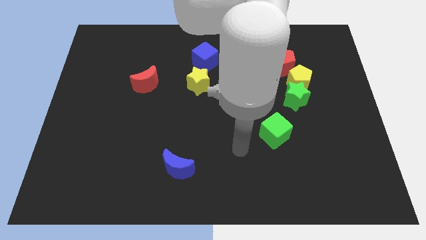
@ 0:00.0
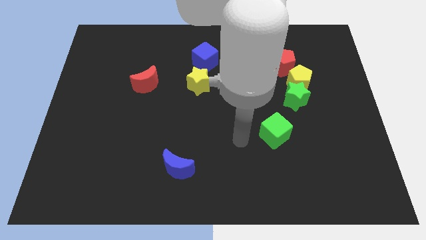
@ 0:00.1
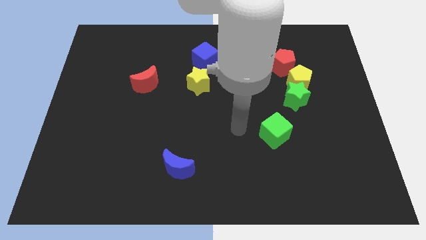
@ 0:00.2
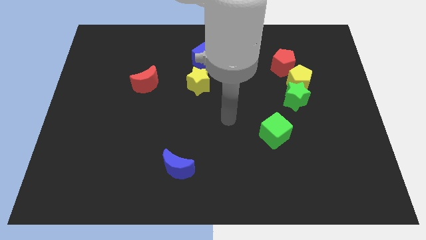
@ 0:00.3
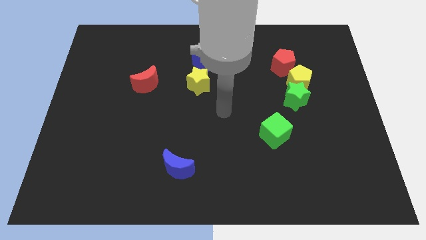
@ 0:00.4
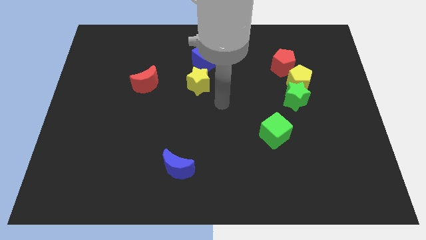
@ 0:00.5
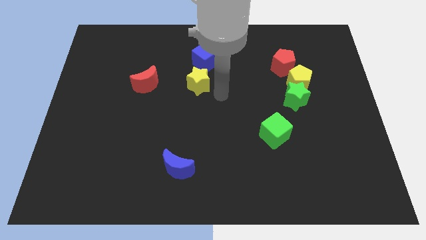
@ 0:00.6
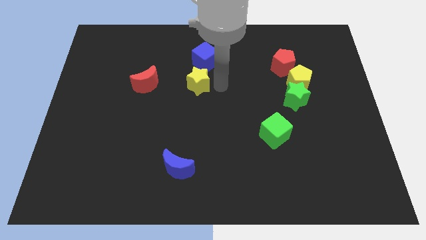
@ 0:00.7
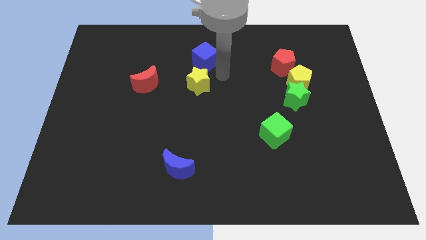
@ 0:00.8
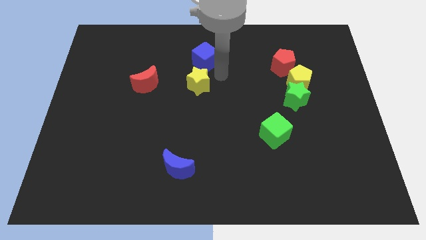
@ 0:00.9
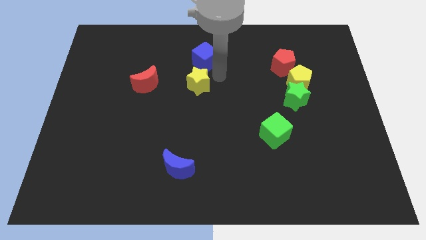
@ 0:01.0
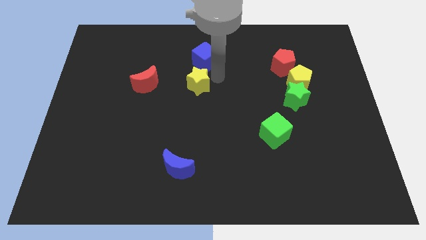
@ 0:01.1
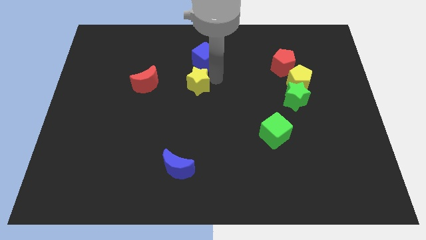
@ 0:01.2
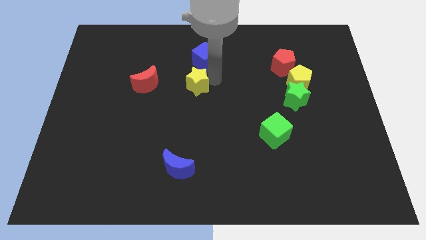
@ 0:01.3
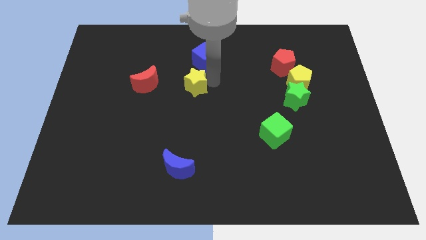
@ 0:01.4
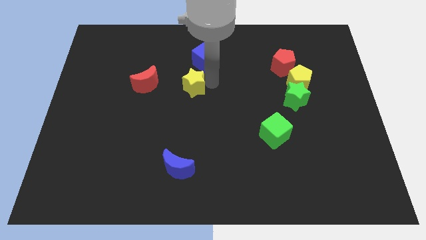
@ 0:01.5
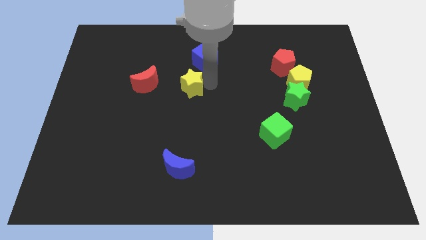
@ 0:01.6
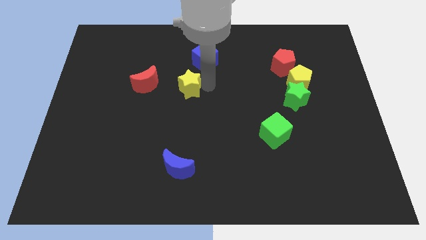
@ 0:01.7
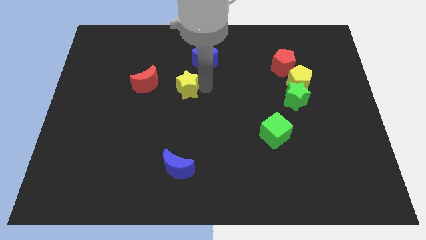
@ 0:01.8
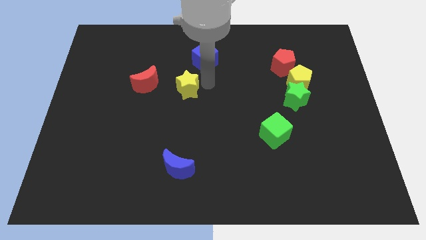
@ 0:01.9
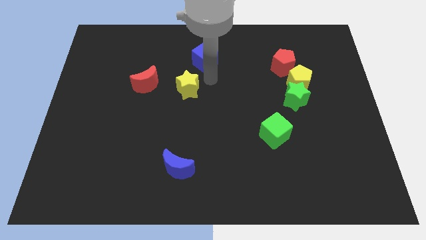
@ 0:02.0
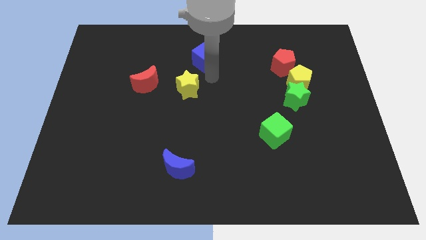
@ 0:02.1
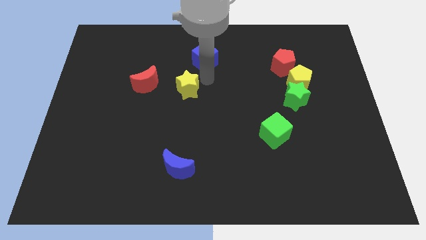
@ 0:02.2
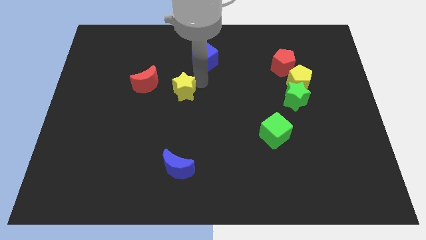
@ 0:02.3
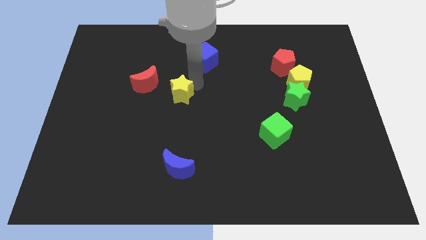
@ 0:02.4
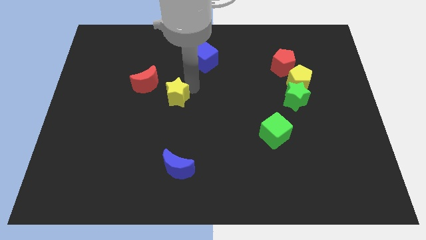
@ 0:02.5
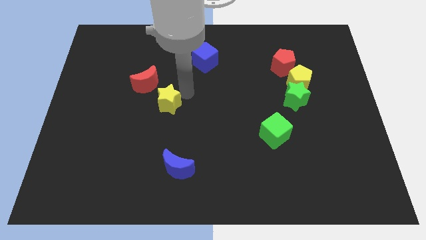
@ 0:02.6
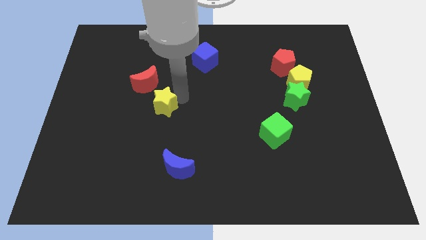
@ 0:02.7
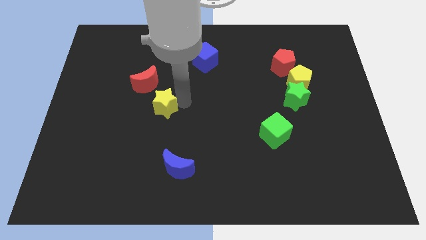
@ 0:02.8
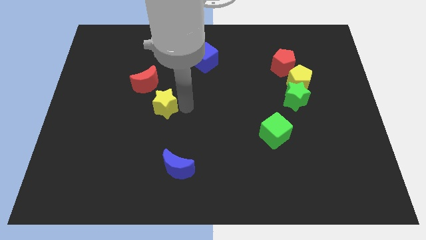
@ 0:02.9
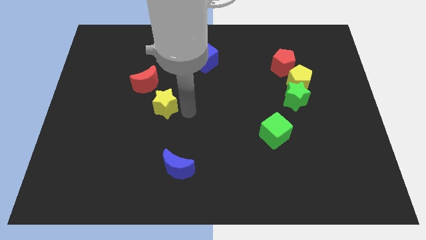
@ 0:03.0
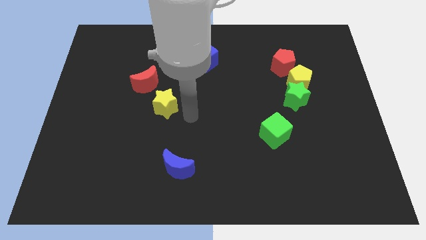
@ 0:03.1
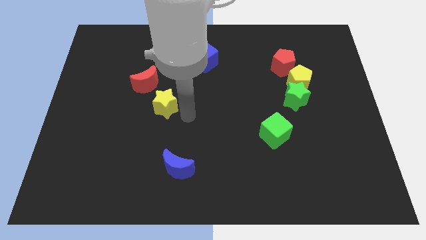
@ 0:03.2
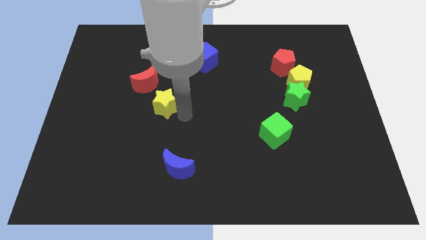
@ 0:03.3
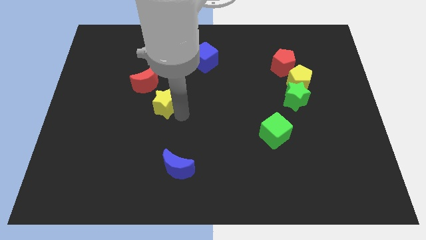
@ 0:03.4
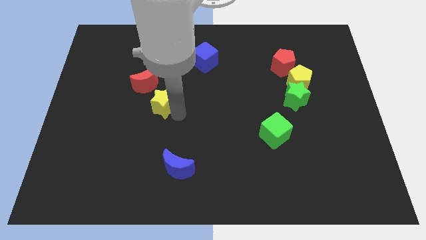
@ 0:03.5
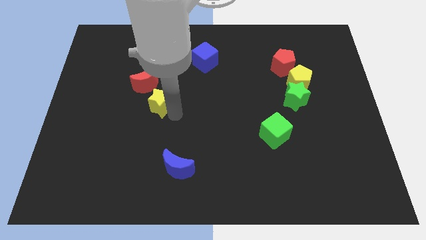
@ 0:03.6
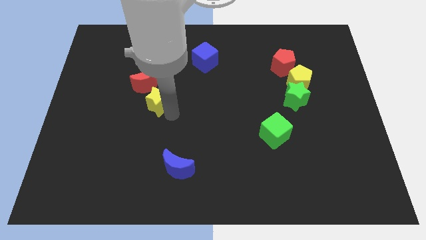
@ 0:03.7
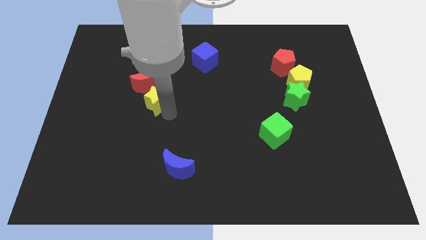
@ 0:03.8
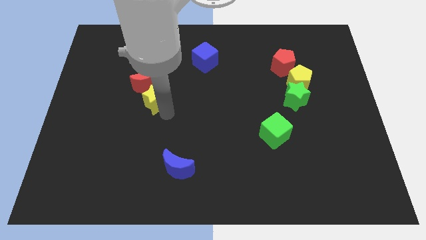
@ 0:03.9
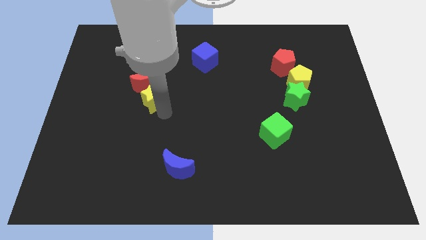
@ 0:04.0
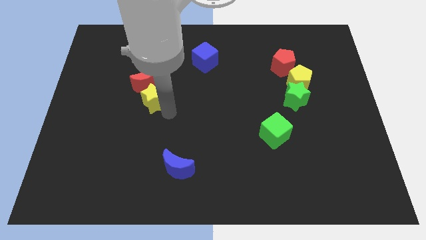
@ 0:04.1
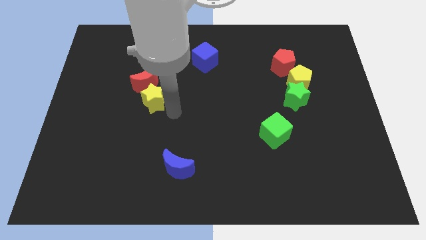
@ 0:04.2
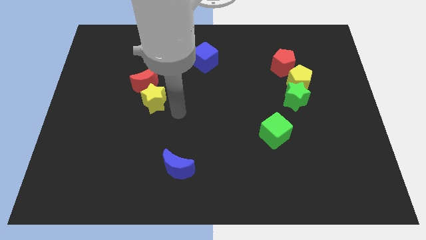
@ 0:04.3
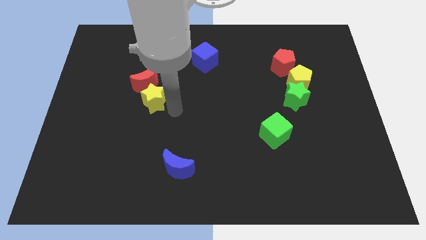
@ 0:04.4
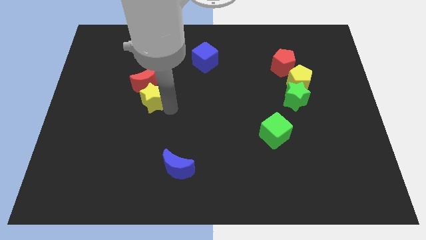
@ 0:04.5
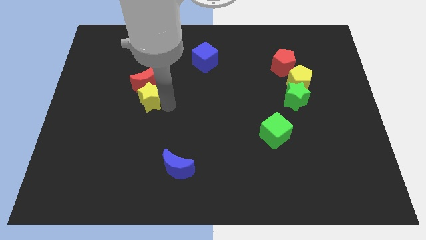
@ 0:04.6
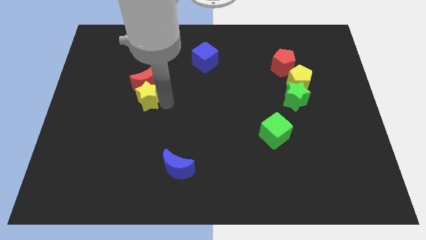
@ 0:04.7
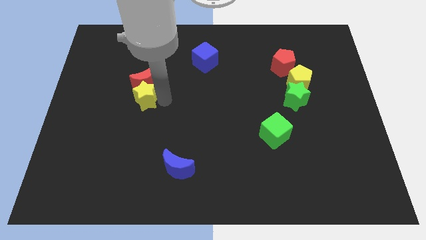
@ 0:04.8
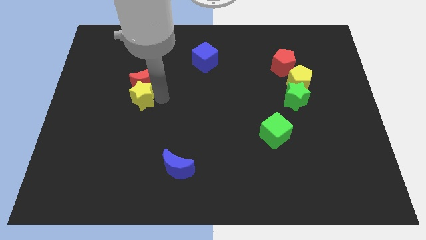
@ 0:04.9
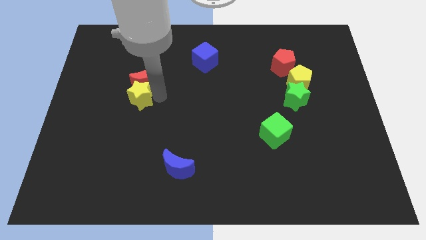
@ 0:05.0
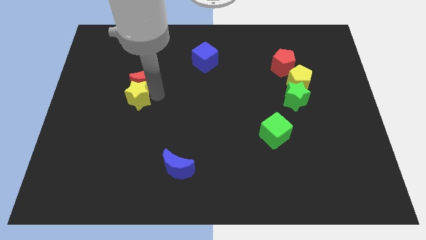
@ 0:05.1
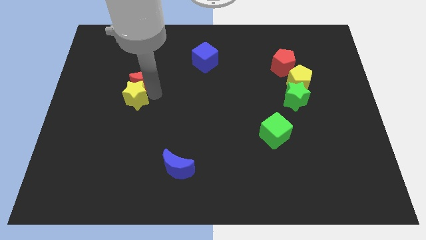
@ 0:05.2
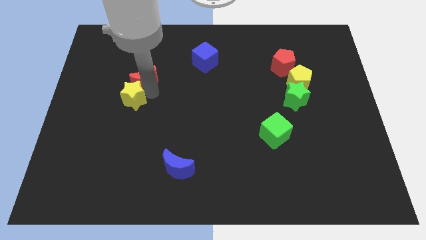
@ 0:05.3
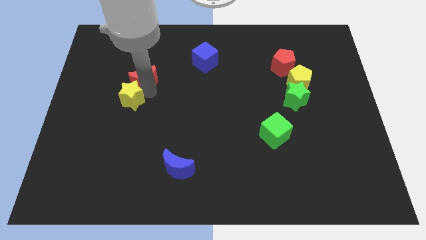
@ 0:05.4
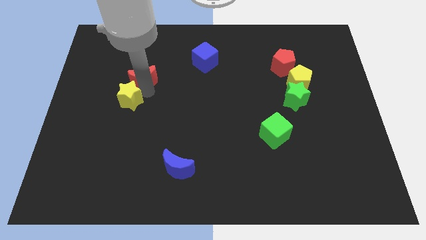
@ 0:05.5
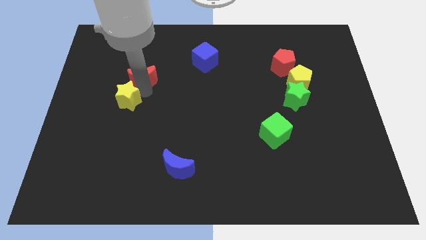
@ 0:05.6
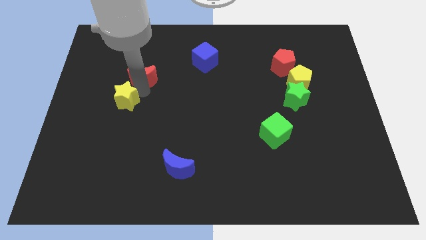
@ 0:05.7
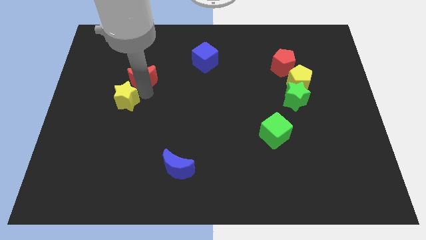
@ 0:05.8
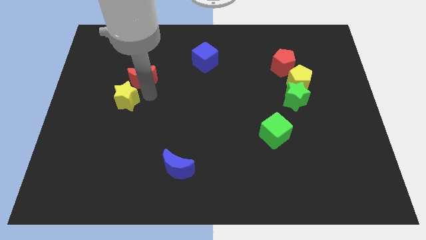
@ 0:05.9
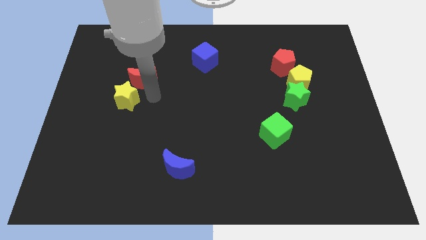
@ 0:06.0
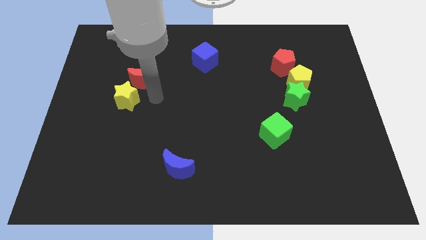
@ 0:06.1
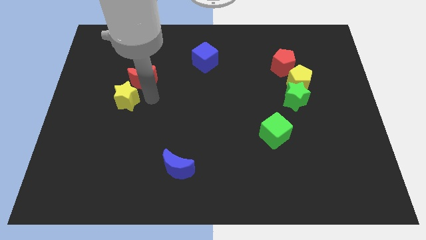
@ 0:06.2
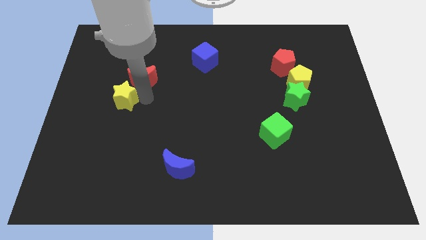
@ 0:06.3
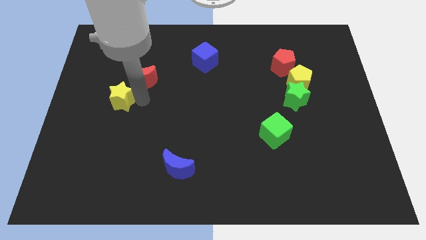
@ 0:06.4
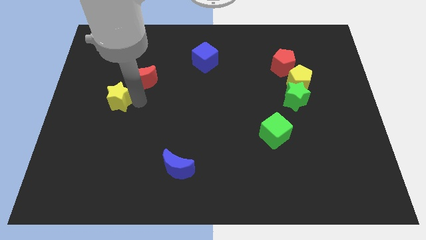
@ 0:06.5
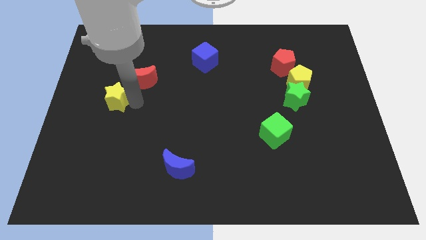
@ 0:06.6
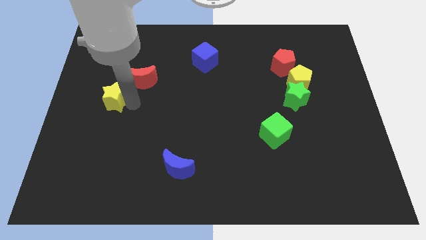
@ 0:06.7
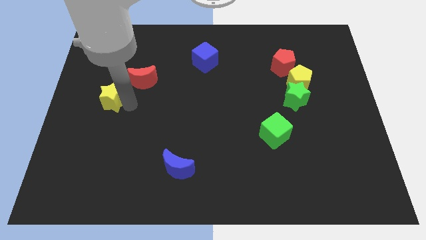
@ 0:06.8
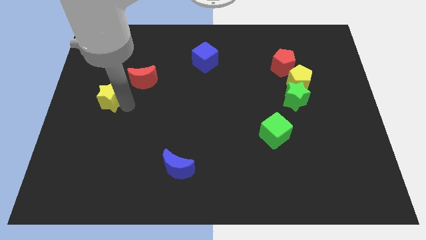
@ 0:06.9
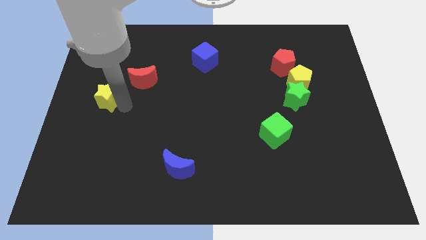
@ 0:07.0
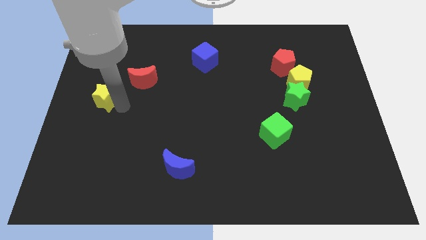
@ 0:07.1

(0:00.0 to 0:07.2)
slide the yellow star to the left side of the board
